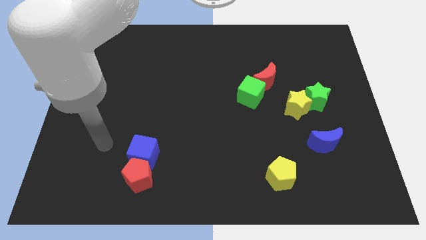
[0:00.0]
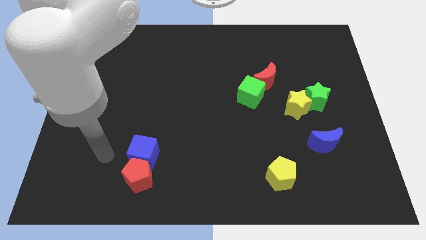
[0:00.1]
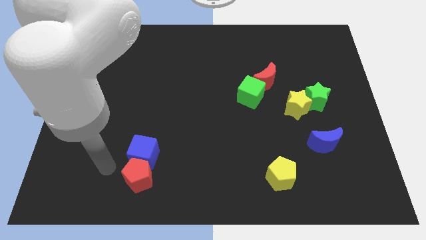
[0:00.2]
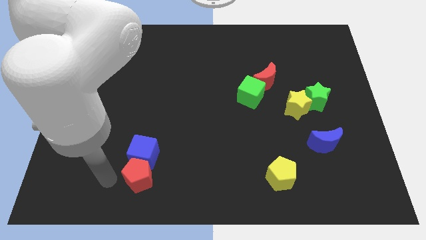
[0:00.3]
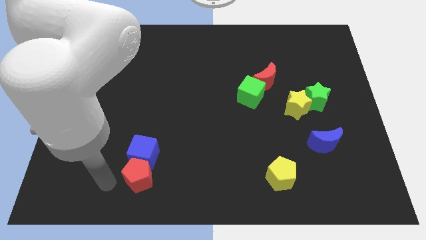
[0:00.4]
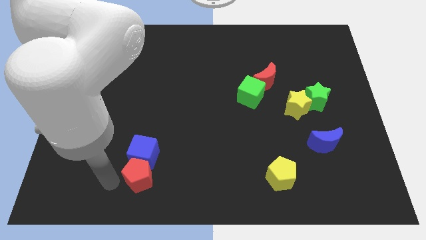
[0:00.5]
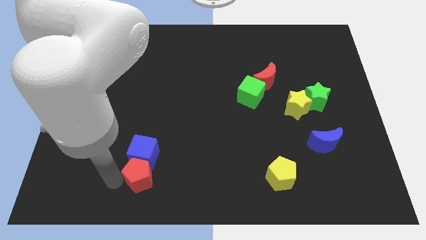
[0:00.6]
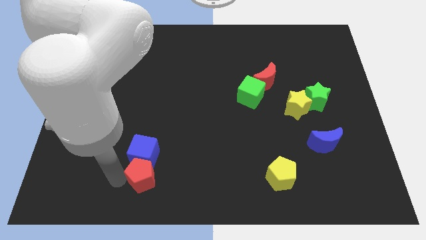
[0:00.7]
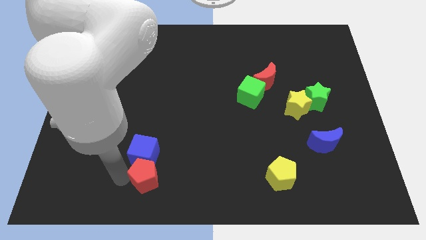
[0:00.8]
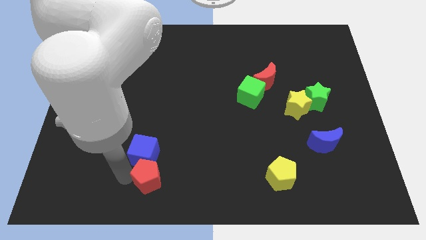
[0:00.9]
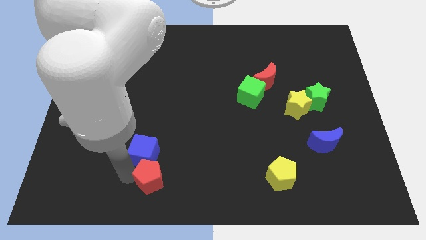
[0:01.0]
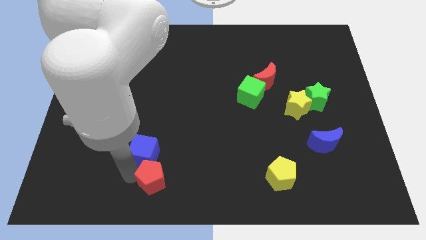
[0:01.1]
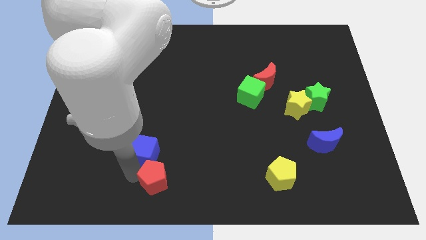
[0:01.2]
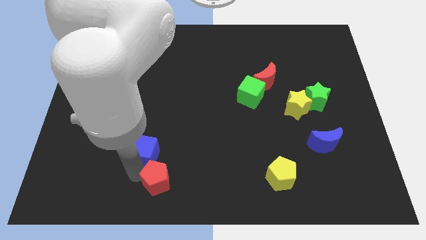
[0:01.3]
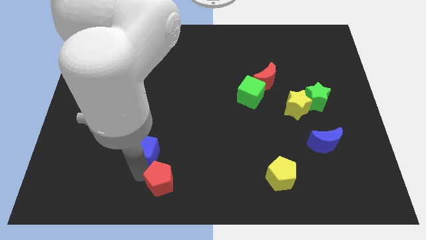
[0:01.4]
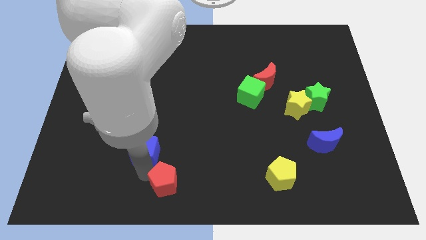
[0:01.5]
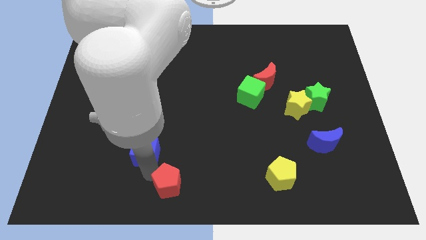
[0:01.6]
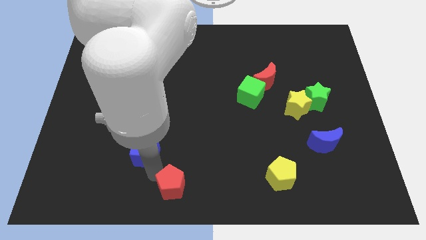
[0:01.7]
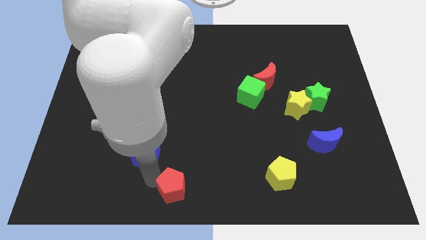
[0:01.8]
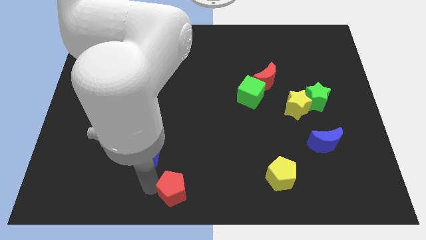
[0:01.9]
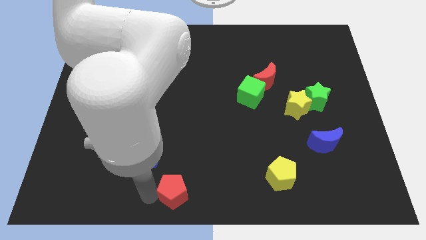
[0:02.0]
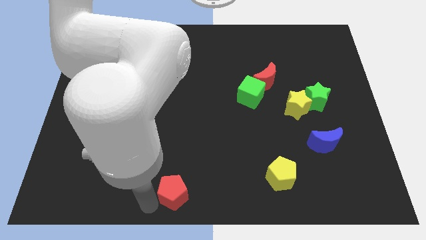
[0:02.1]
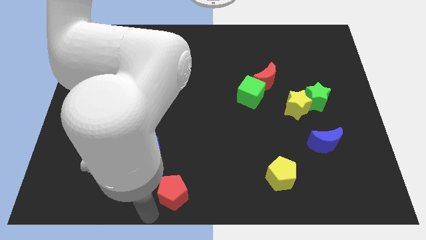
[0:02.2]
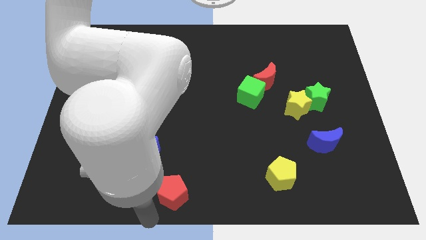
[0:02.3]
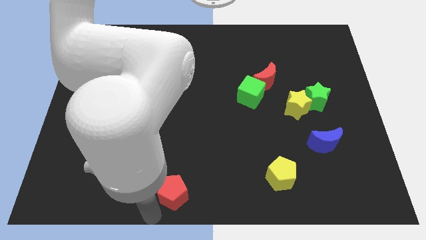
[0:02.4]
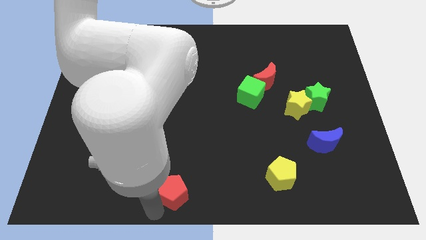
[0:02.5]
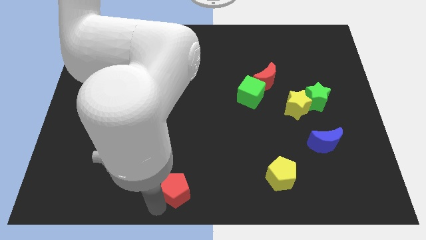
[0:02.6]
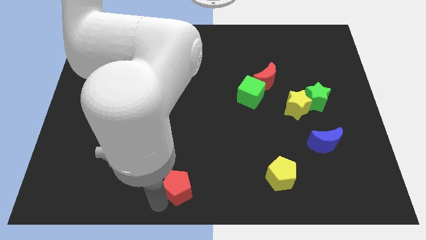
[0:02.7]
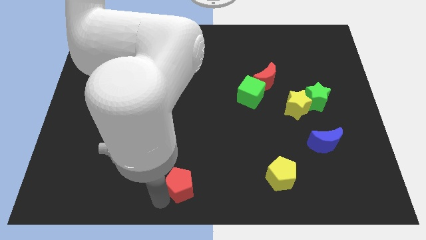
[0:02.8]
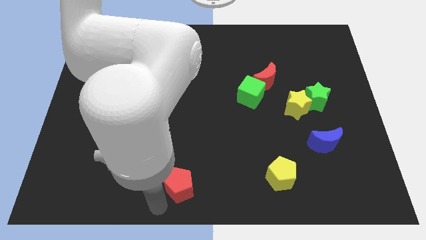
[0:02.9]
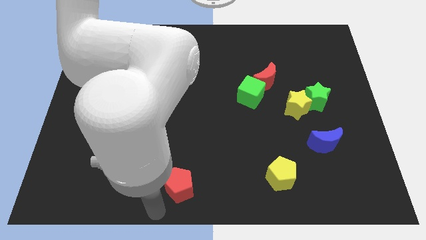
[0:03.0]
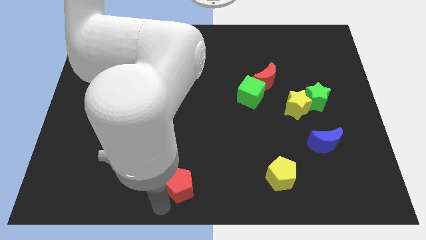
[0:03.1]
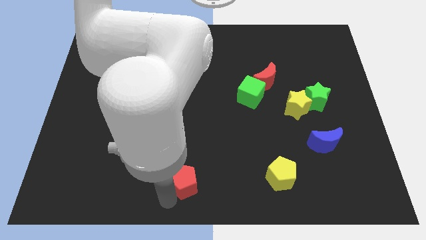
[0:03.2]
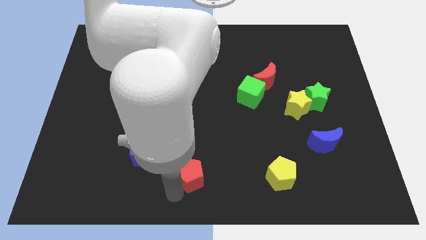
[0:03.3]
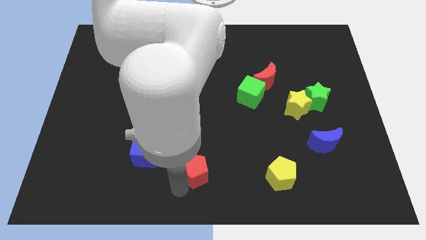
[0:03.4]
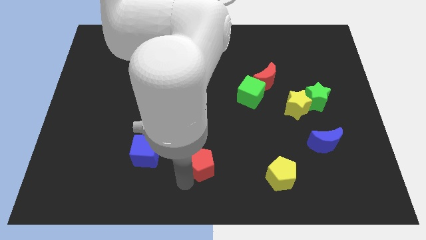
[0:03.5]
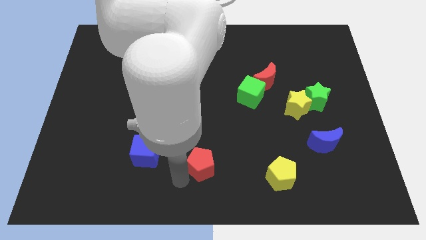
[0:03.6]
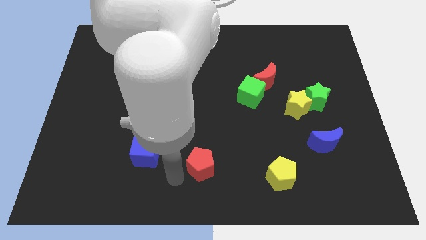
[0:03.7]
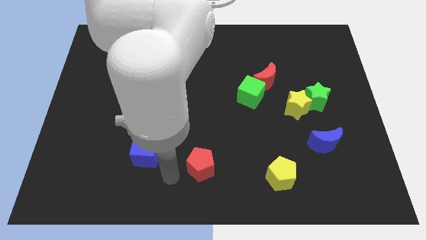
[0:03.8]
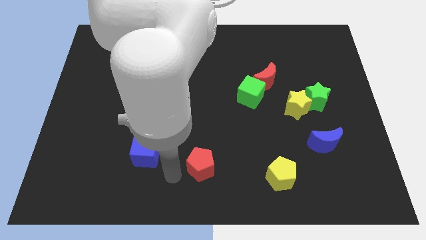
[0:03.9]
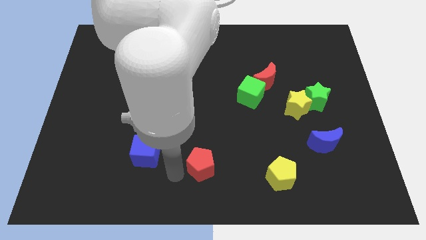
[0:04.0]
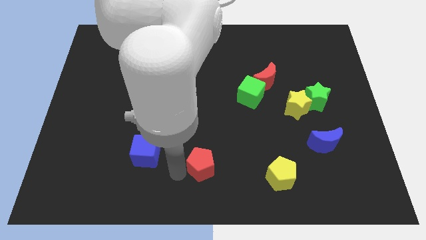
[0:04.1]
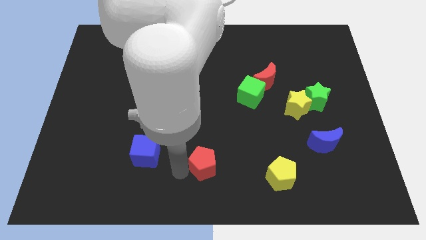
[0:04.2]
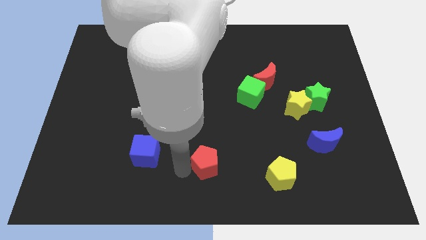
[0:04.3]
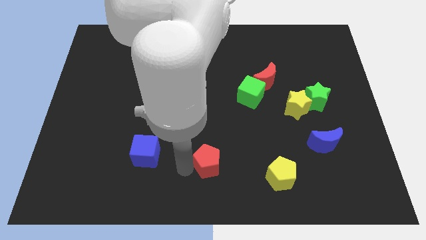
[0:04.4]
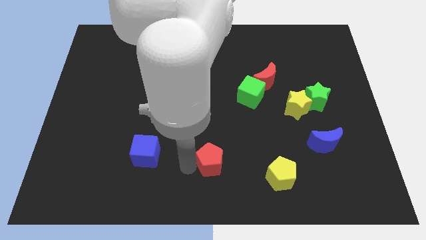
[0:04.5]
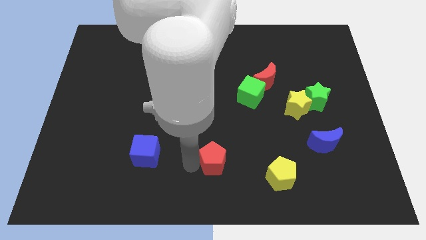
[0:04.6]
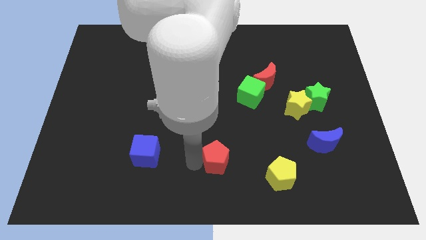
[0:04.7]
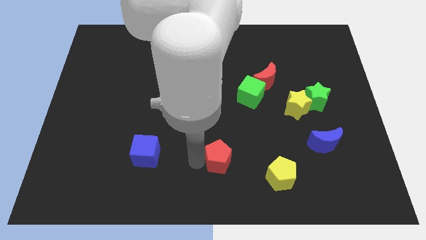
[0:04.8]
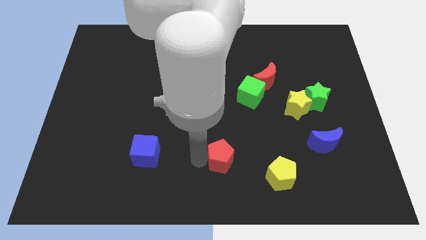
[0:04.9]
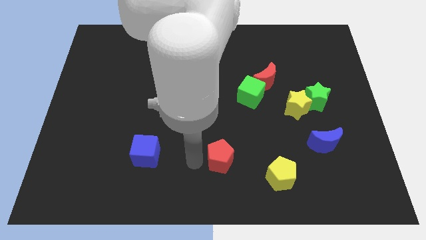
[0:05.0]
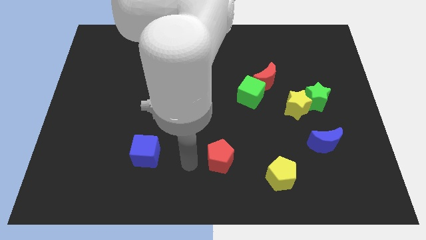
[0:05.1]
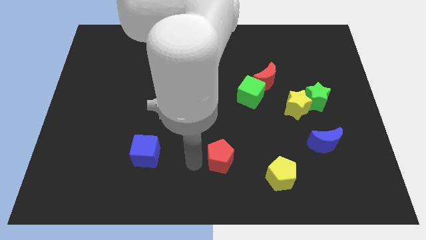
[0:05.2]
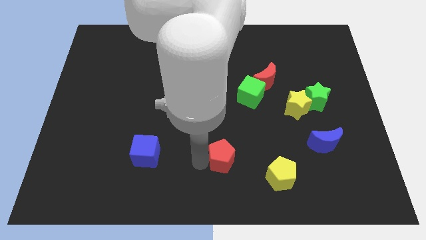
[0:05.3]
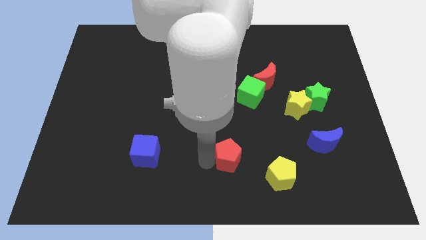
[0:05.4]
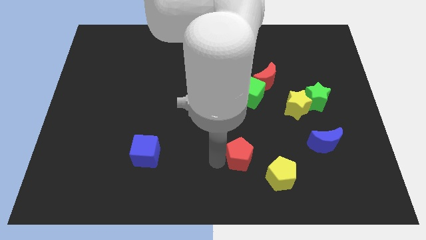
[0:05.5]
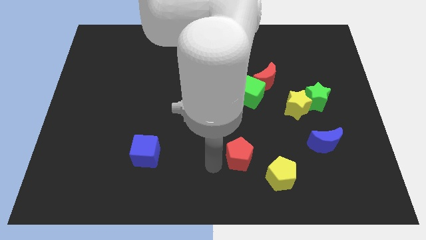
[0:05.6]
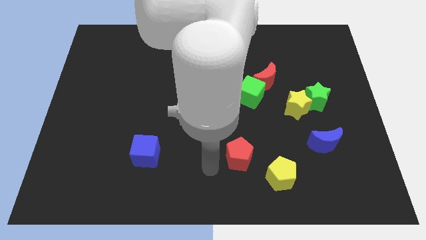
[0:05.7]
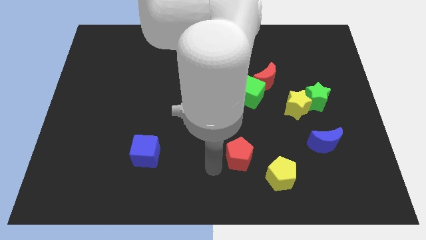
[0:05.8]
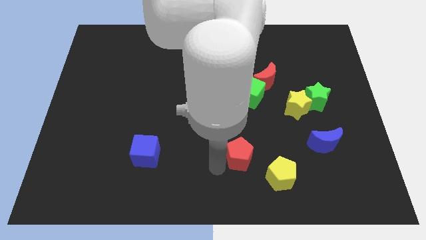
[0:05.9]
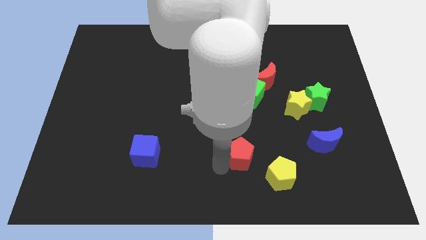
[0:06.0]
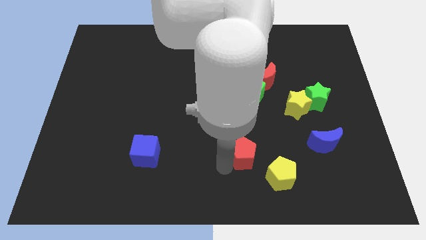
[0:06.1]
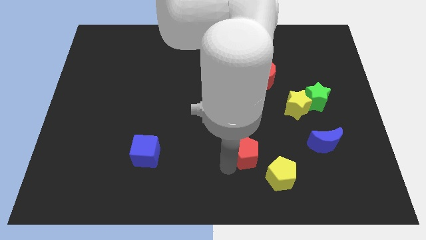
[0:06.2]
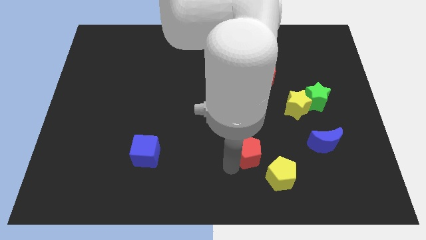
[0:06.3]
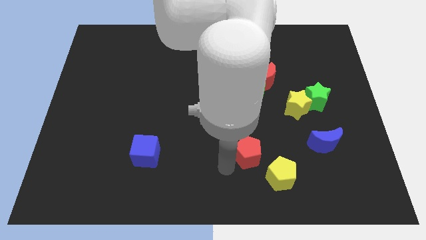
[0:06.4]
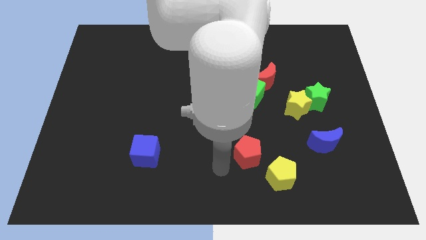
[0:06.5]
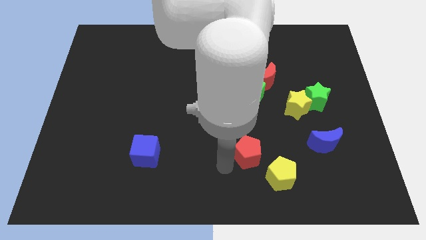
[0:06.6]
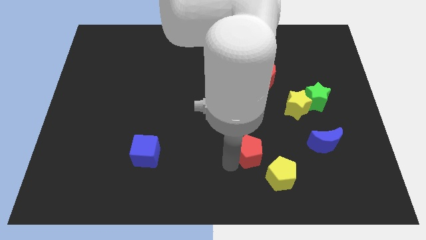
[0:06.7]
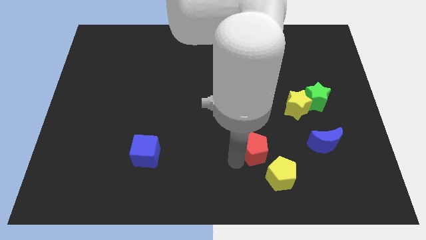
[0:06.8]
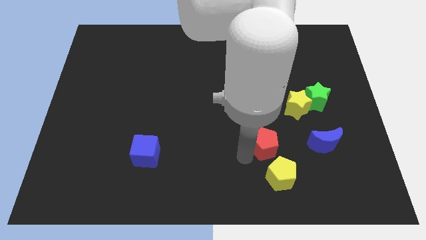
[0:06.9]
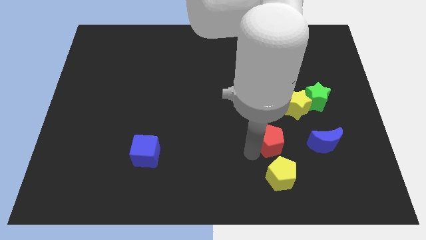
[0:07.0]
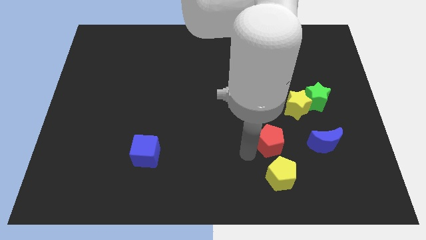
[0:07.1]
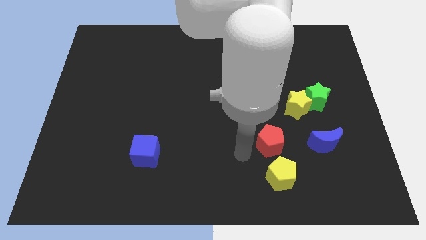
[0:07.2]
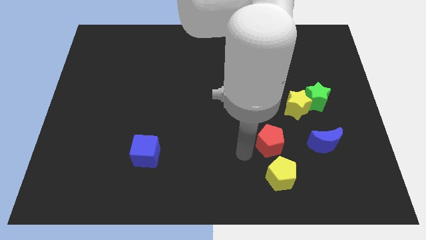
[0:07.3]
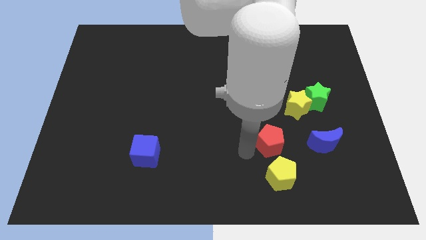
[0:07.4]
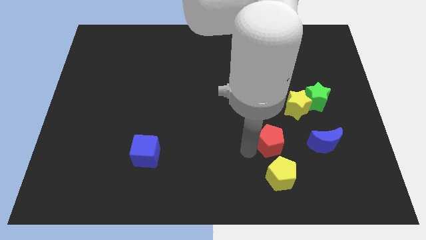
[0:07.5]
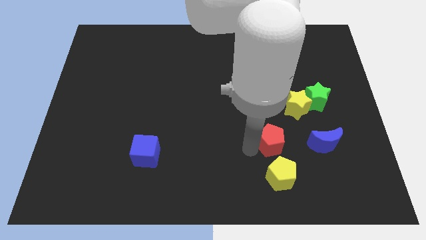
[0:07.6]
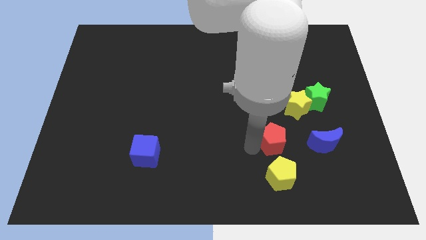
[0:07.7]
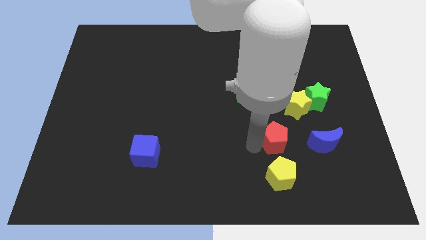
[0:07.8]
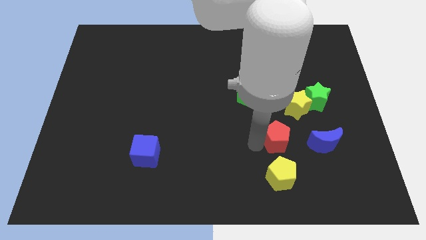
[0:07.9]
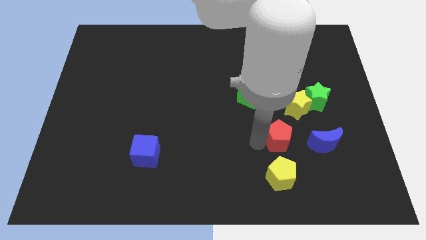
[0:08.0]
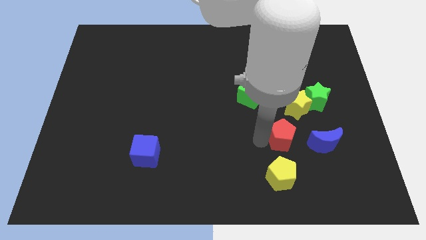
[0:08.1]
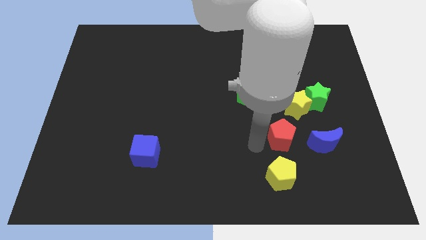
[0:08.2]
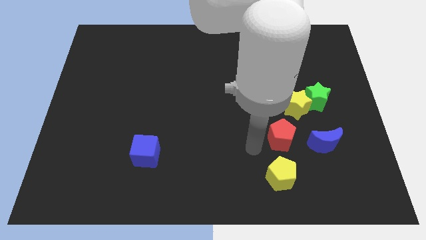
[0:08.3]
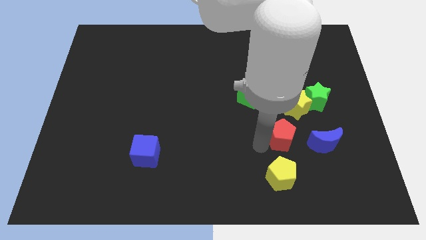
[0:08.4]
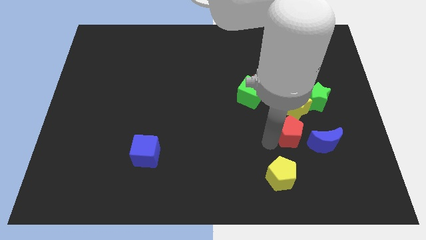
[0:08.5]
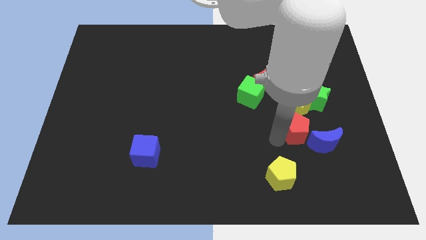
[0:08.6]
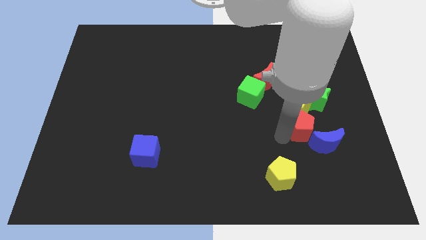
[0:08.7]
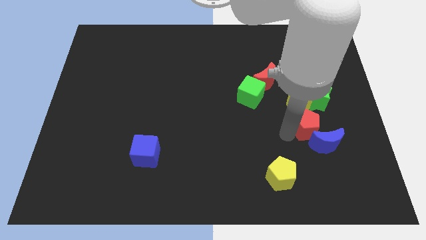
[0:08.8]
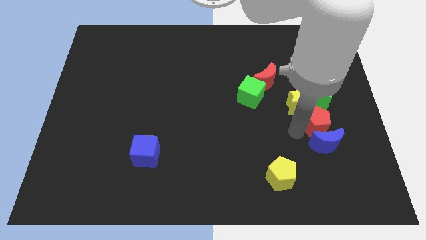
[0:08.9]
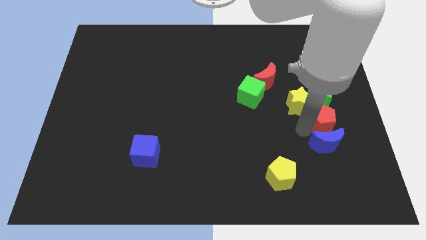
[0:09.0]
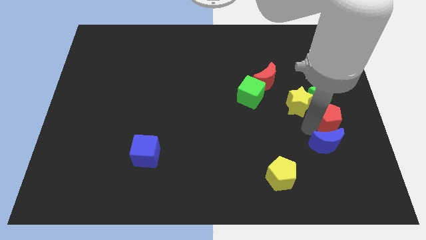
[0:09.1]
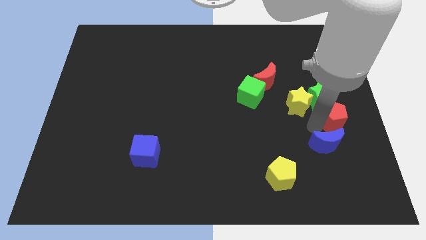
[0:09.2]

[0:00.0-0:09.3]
push the red pentagon to the right side of the board
